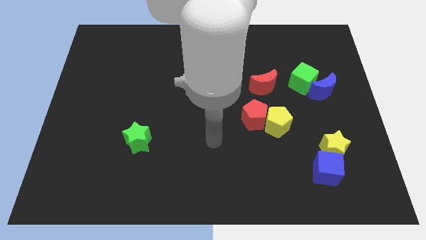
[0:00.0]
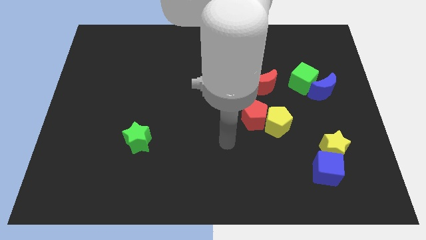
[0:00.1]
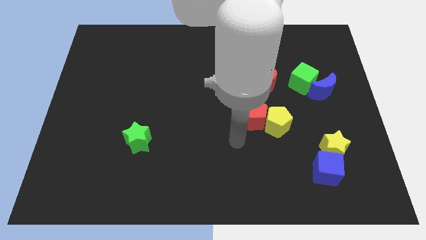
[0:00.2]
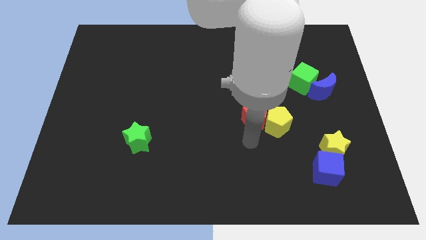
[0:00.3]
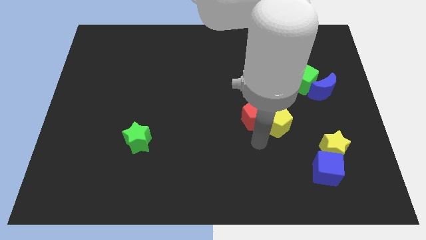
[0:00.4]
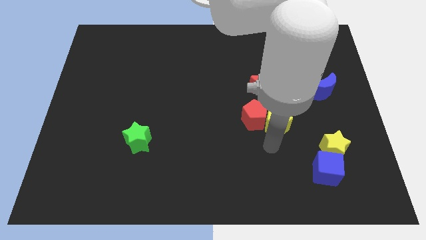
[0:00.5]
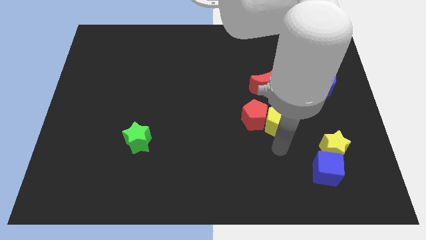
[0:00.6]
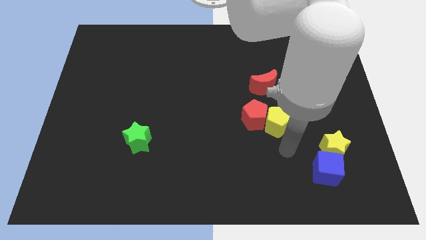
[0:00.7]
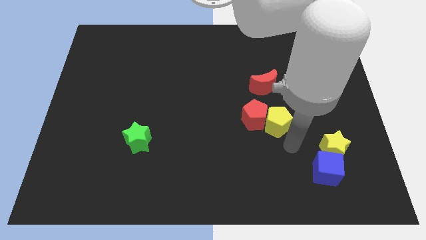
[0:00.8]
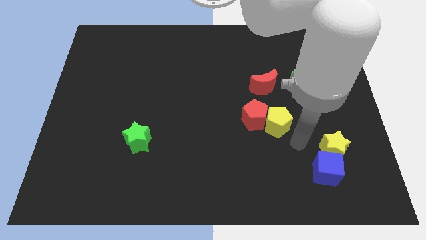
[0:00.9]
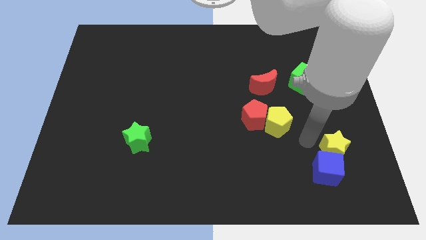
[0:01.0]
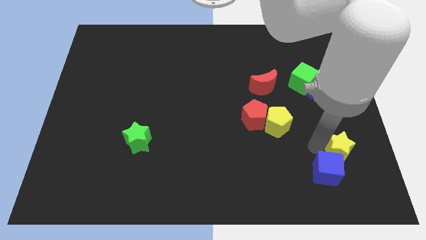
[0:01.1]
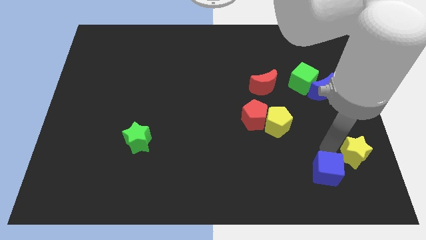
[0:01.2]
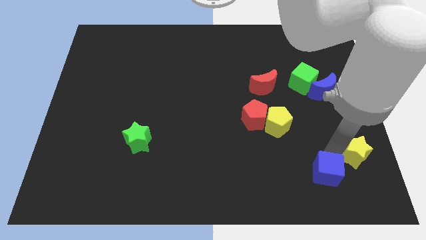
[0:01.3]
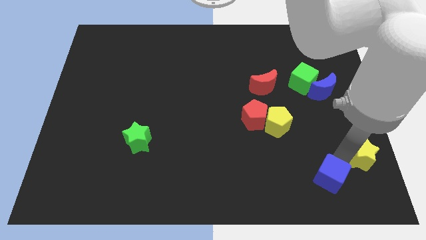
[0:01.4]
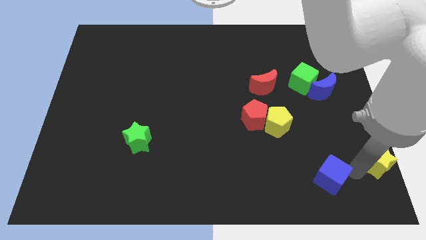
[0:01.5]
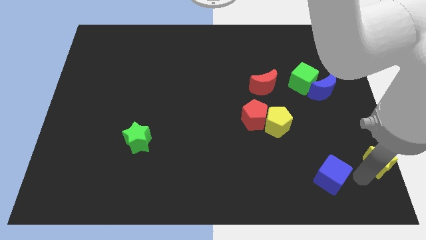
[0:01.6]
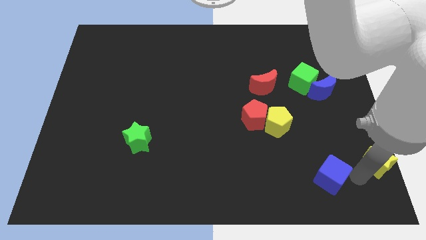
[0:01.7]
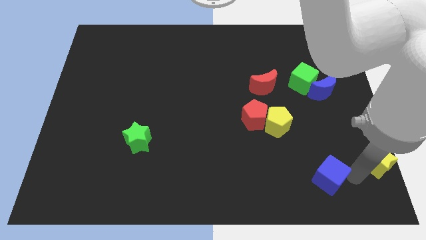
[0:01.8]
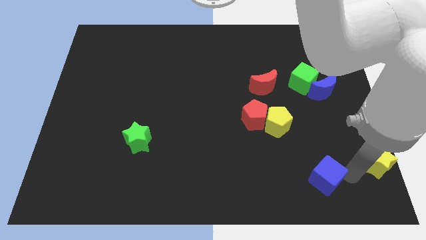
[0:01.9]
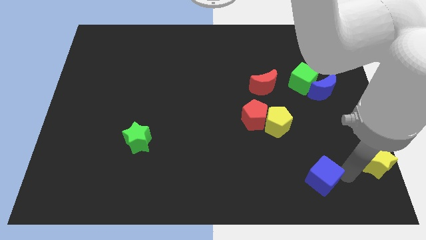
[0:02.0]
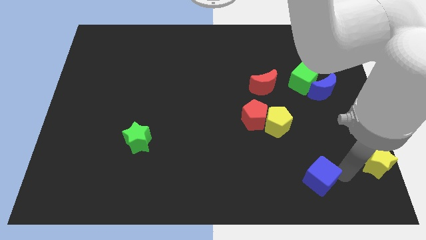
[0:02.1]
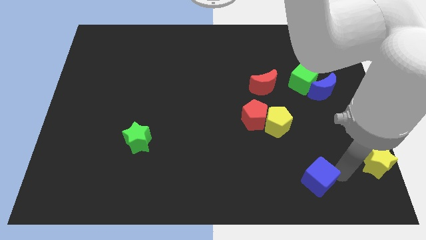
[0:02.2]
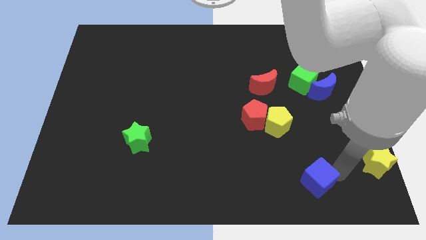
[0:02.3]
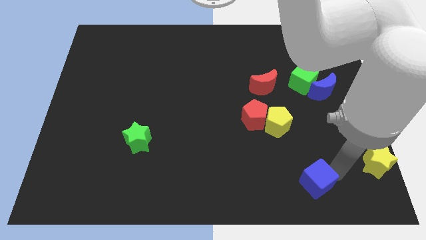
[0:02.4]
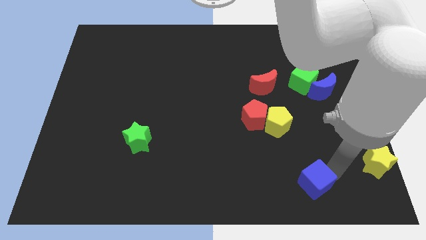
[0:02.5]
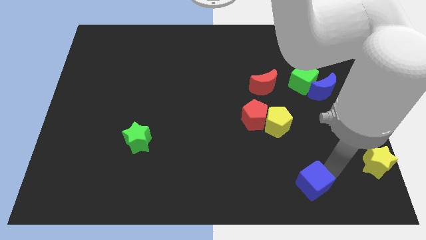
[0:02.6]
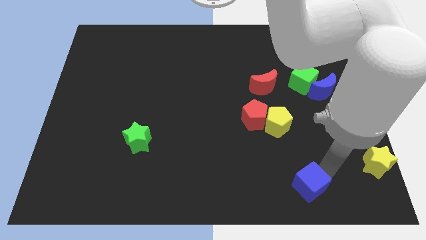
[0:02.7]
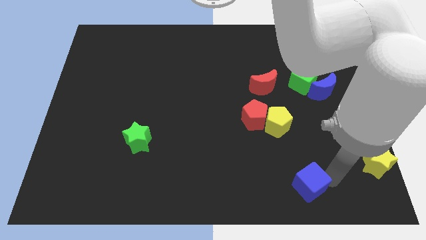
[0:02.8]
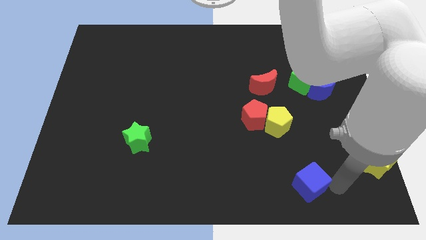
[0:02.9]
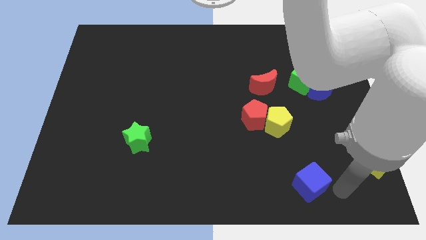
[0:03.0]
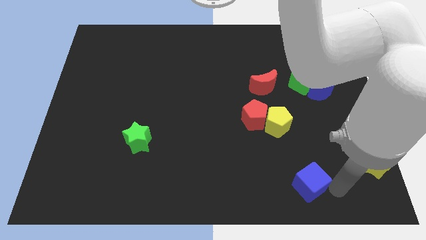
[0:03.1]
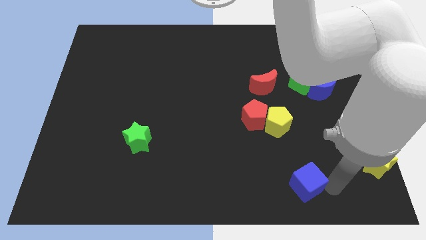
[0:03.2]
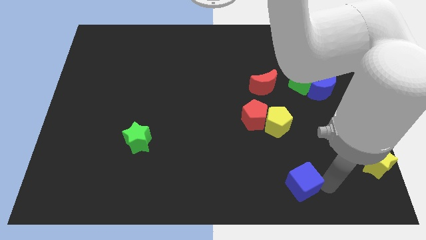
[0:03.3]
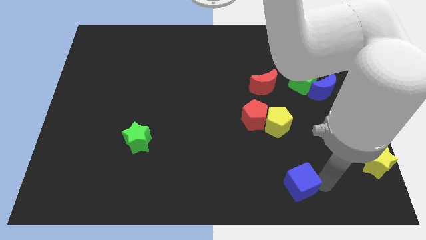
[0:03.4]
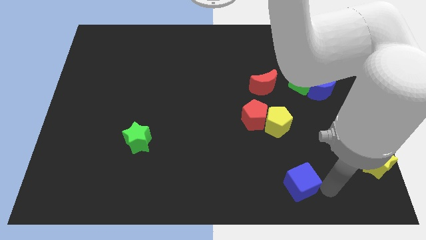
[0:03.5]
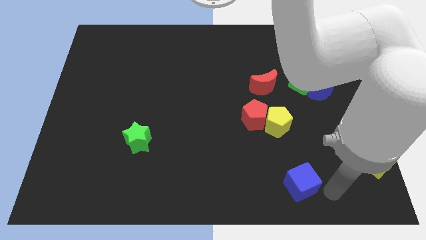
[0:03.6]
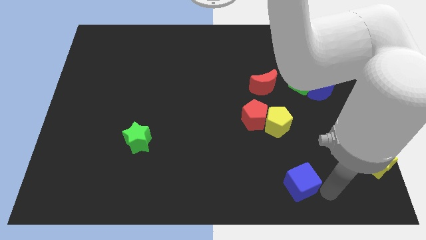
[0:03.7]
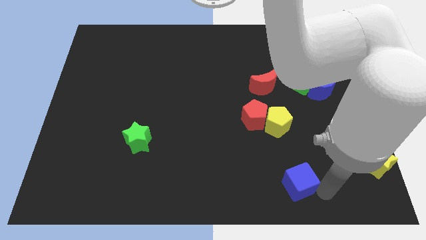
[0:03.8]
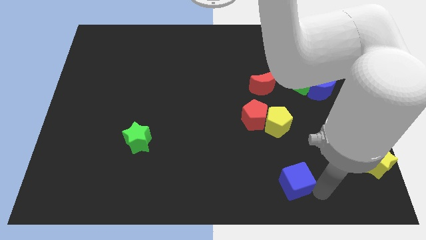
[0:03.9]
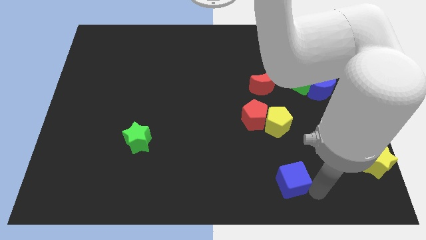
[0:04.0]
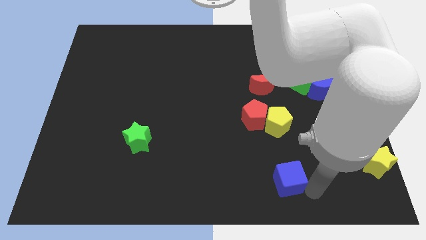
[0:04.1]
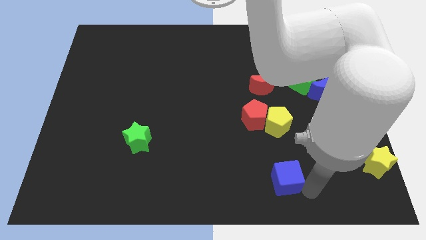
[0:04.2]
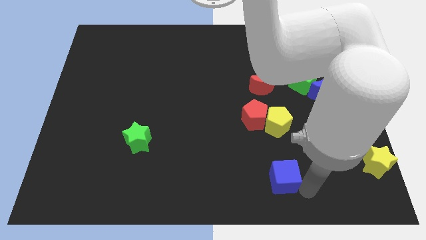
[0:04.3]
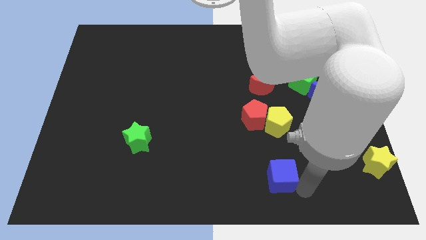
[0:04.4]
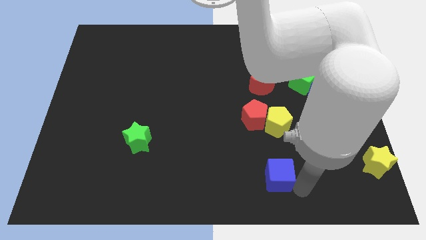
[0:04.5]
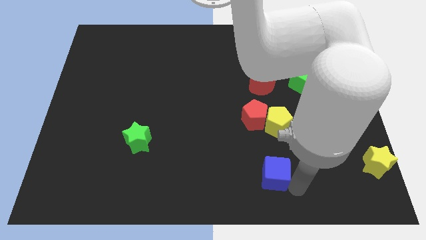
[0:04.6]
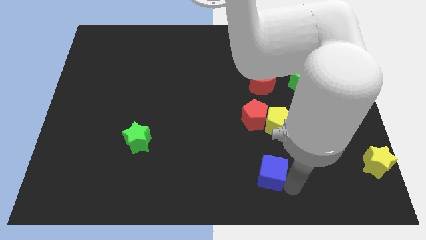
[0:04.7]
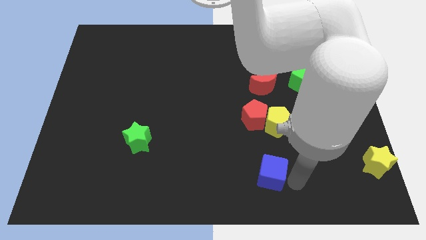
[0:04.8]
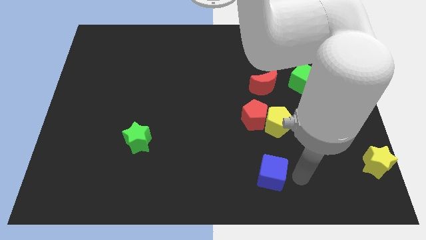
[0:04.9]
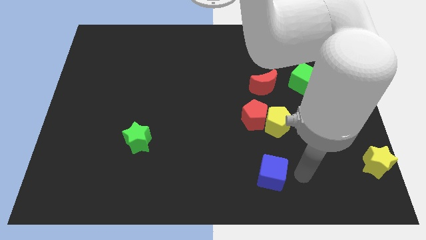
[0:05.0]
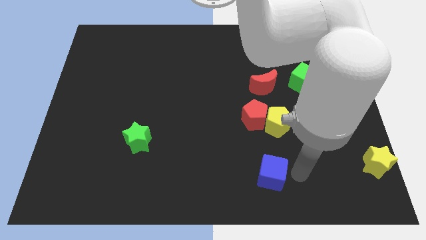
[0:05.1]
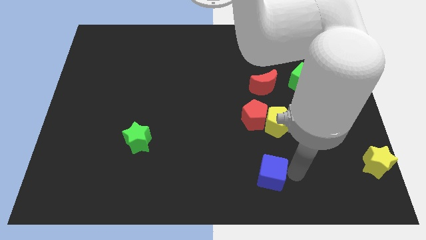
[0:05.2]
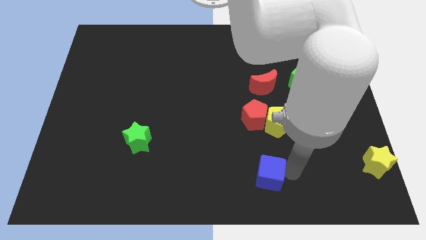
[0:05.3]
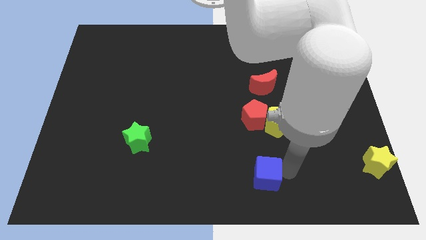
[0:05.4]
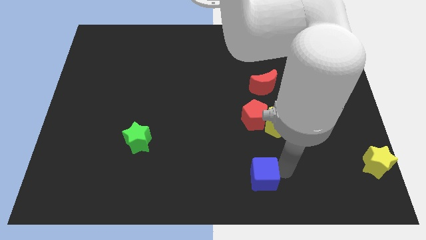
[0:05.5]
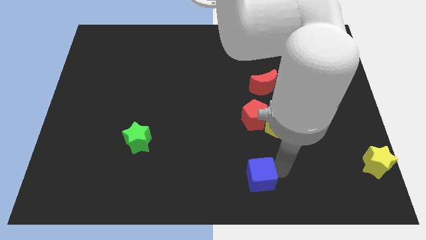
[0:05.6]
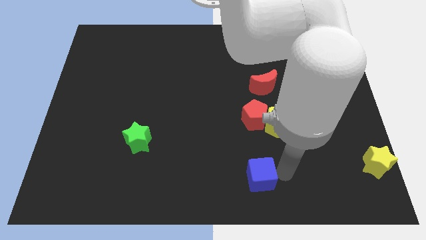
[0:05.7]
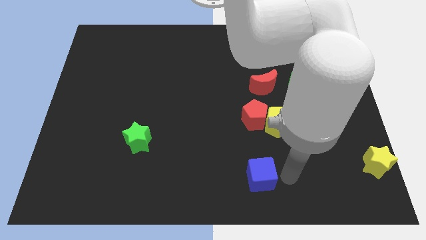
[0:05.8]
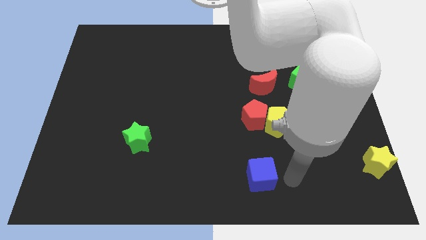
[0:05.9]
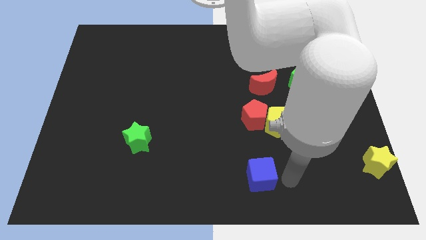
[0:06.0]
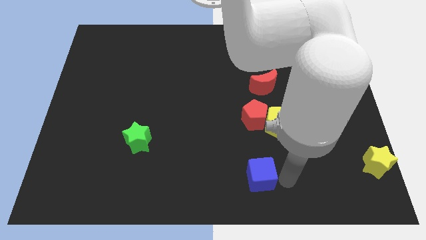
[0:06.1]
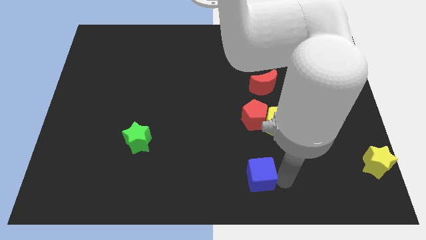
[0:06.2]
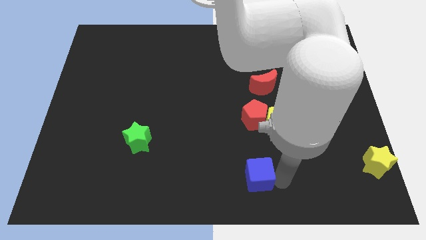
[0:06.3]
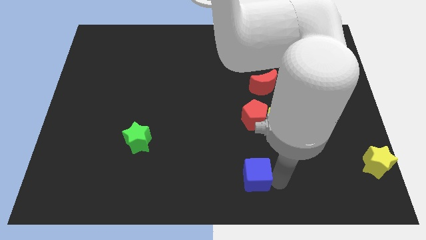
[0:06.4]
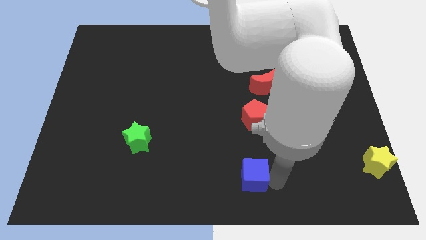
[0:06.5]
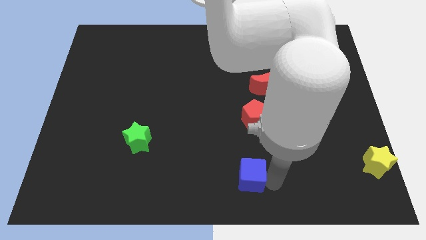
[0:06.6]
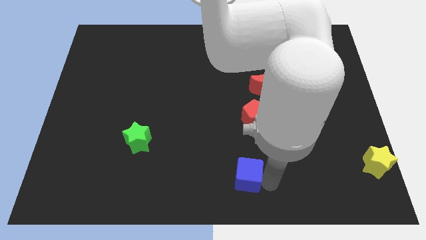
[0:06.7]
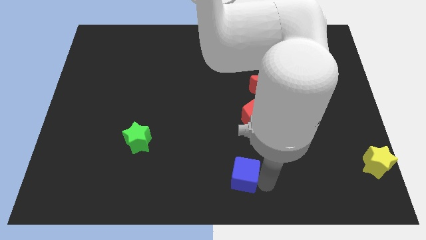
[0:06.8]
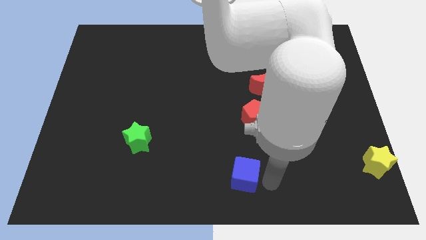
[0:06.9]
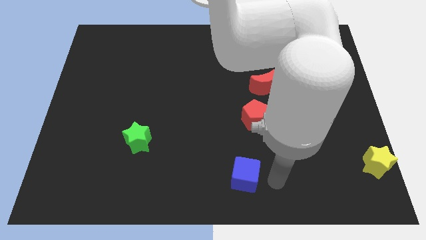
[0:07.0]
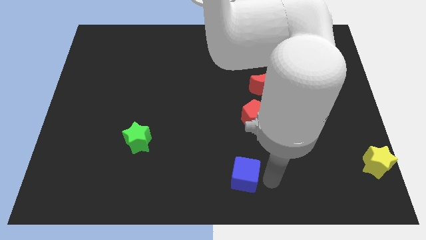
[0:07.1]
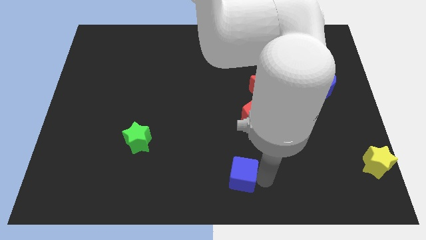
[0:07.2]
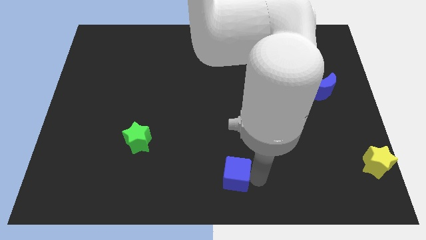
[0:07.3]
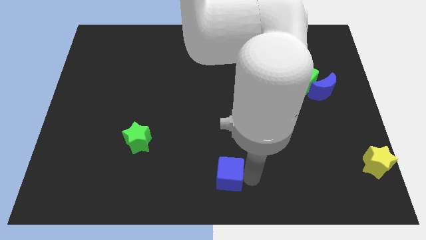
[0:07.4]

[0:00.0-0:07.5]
slide the blue cube left

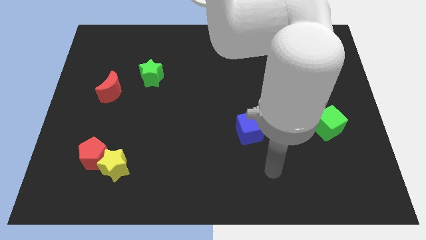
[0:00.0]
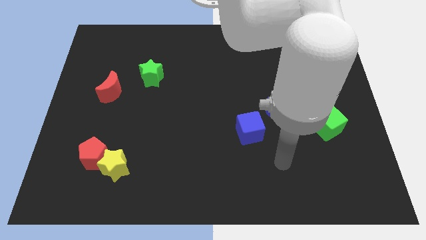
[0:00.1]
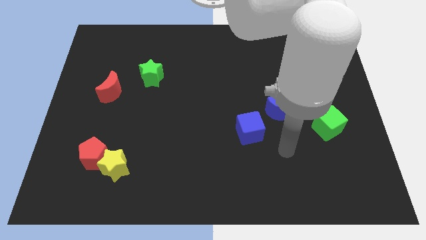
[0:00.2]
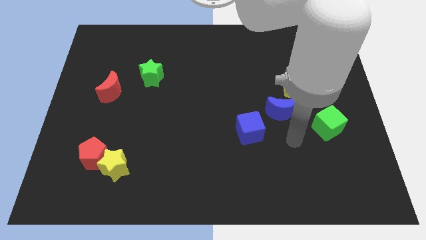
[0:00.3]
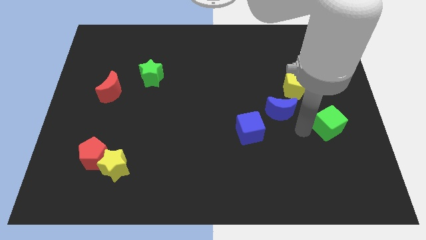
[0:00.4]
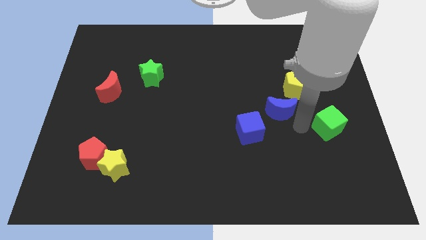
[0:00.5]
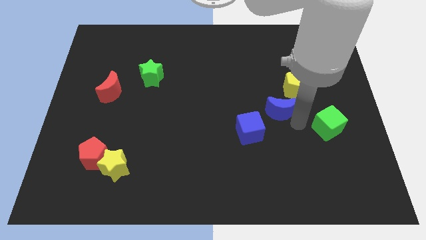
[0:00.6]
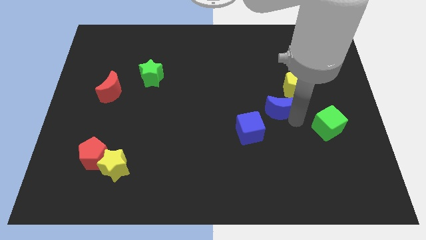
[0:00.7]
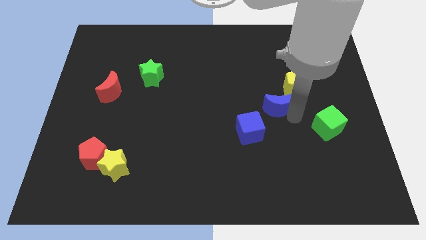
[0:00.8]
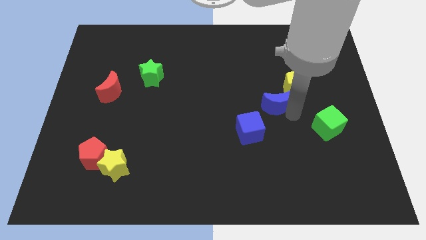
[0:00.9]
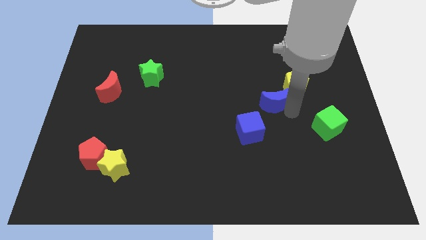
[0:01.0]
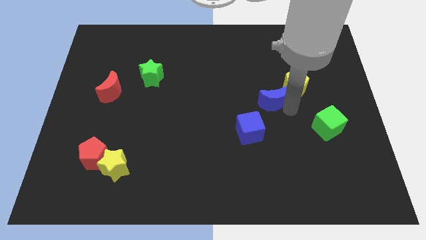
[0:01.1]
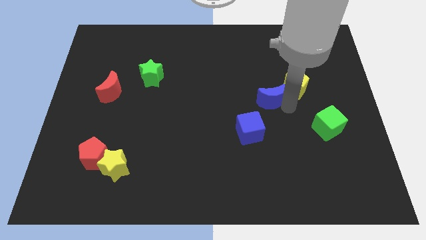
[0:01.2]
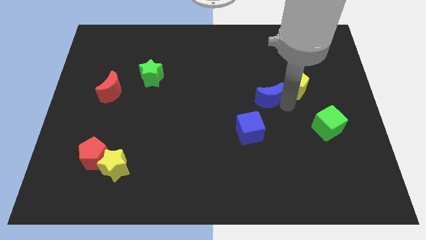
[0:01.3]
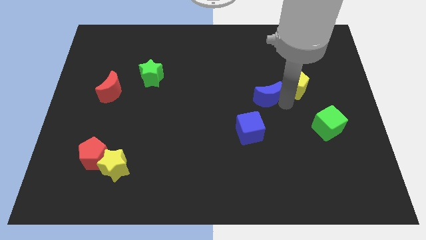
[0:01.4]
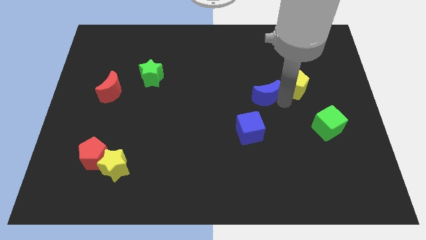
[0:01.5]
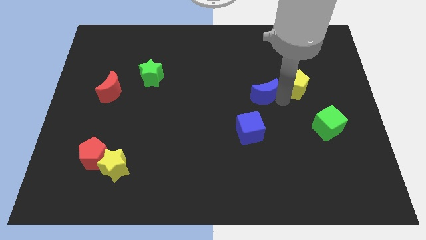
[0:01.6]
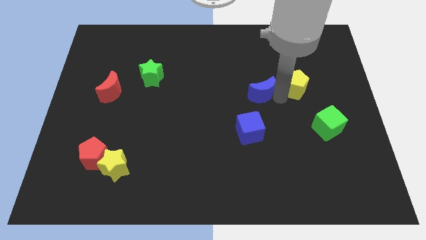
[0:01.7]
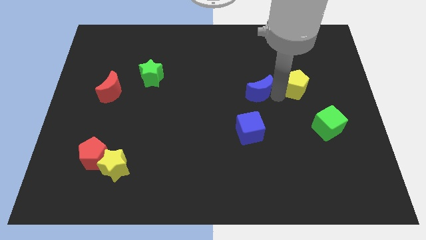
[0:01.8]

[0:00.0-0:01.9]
move the blue moon up and left a little
